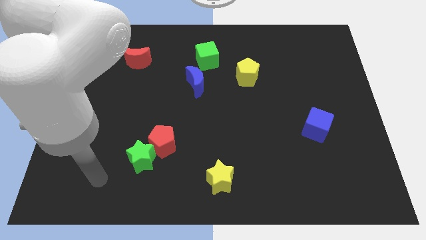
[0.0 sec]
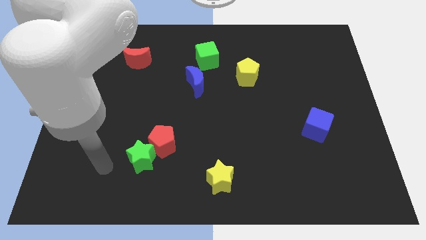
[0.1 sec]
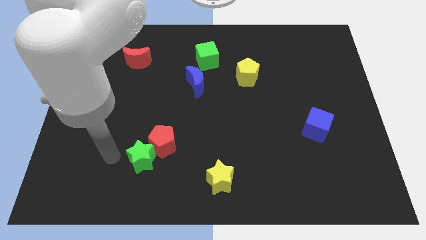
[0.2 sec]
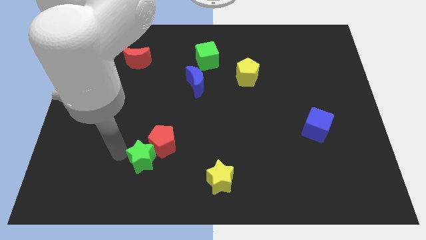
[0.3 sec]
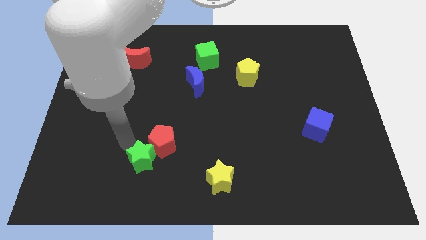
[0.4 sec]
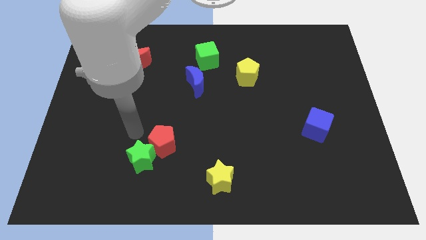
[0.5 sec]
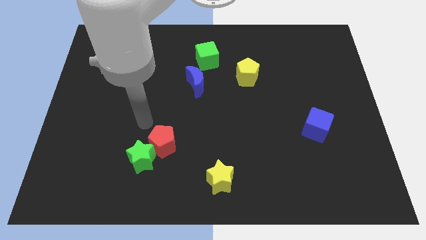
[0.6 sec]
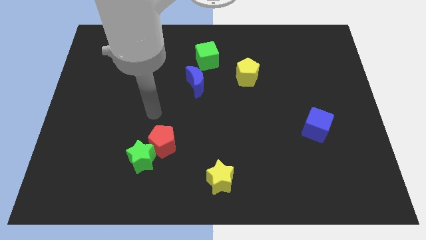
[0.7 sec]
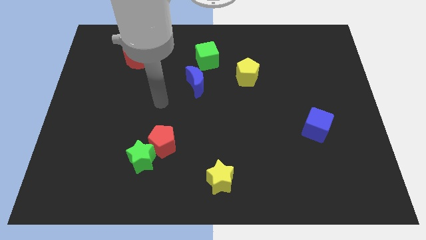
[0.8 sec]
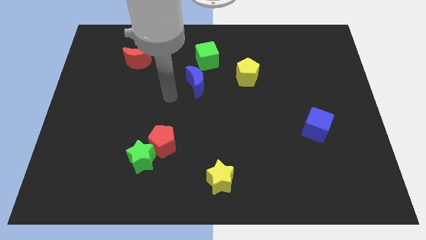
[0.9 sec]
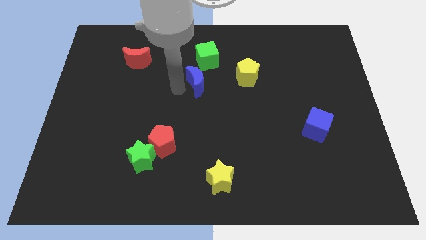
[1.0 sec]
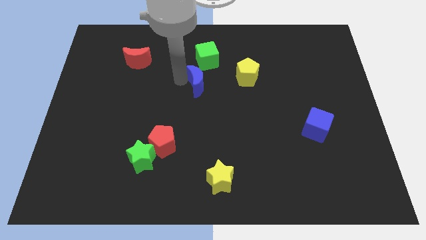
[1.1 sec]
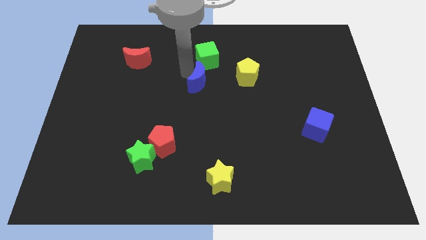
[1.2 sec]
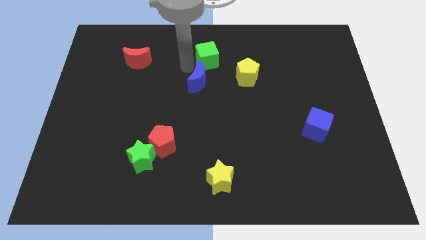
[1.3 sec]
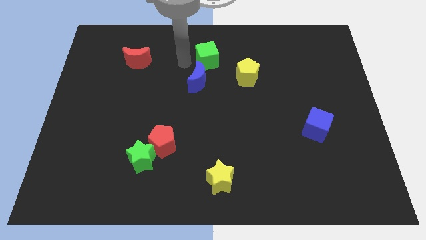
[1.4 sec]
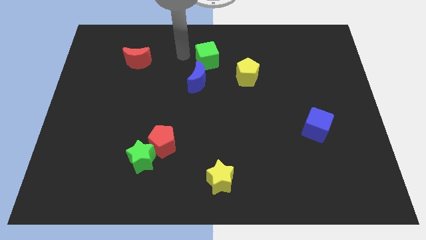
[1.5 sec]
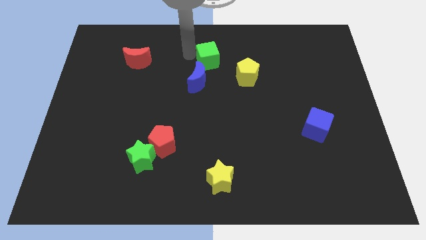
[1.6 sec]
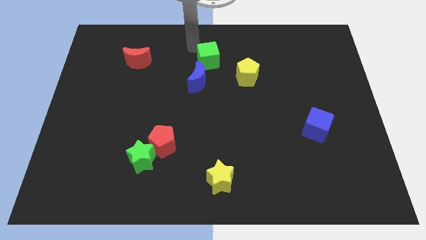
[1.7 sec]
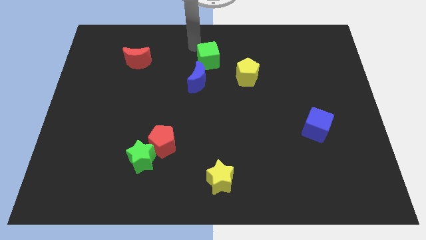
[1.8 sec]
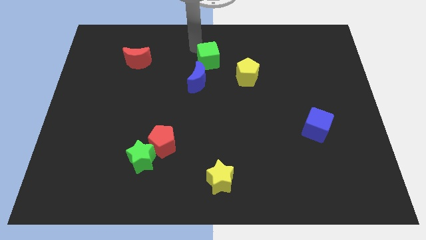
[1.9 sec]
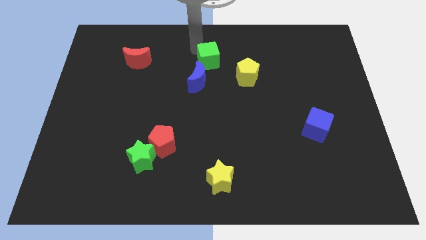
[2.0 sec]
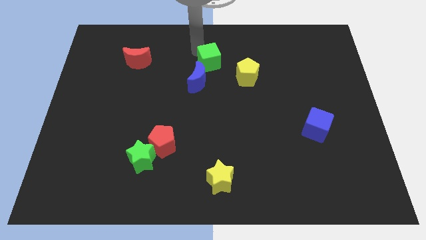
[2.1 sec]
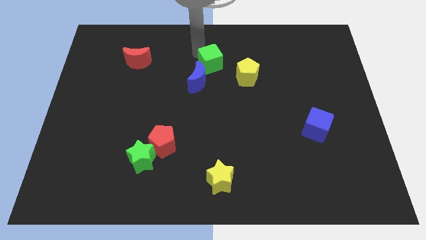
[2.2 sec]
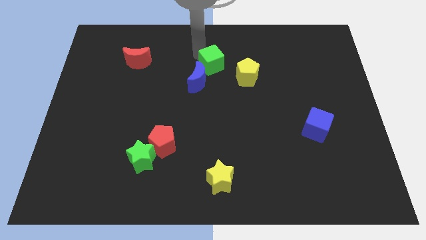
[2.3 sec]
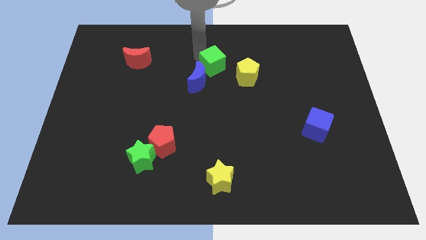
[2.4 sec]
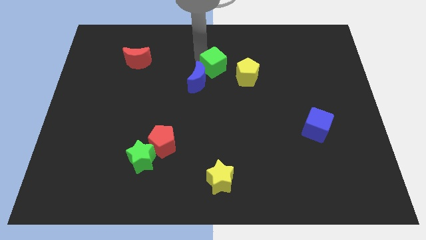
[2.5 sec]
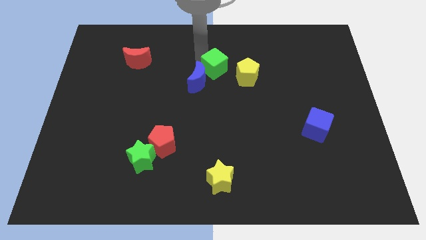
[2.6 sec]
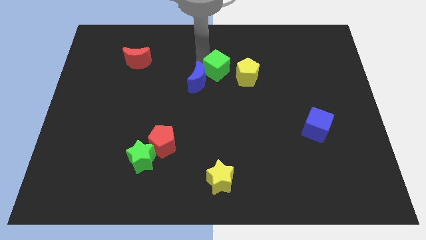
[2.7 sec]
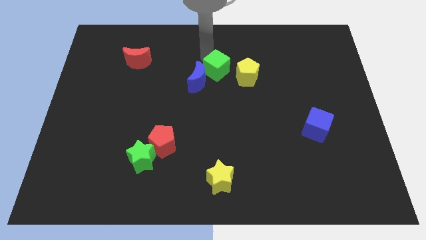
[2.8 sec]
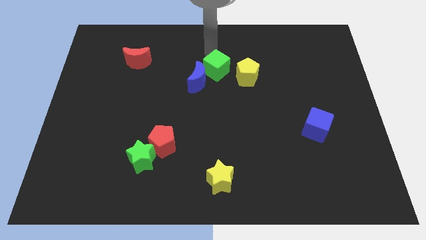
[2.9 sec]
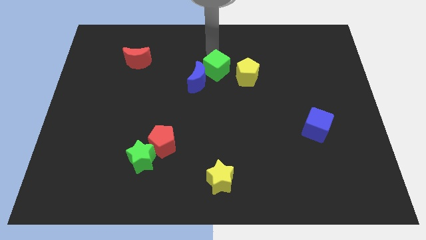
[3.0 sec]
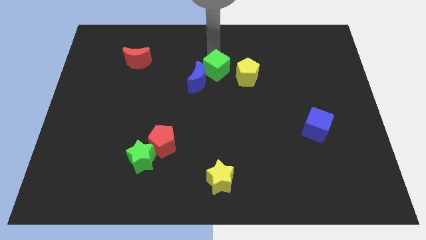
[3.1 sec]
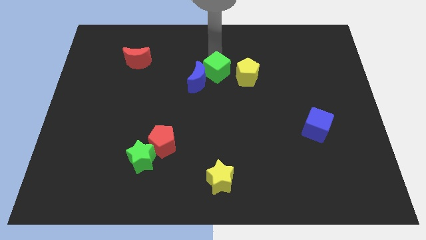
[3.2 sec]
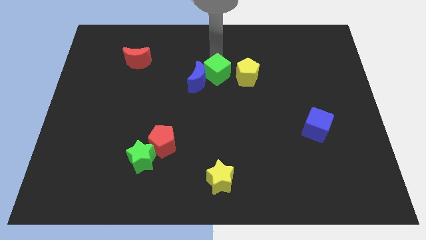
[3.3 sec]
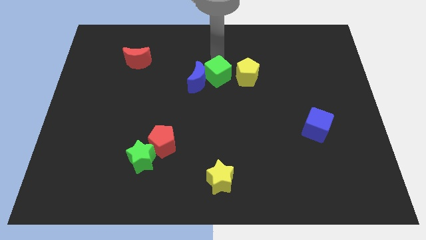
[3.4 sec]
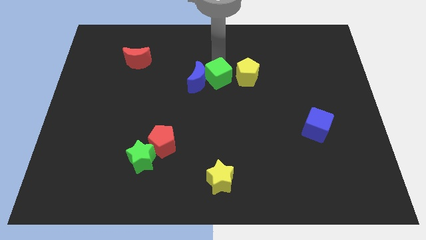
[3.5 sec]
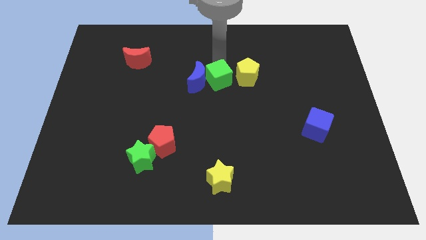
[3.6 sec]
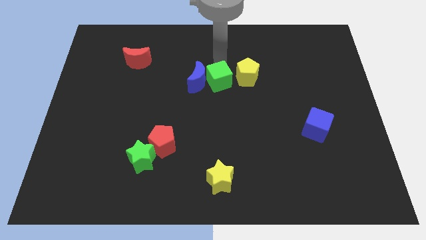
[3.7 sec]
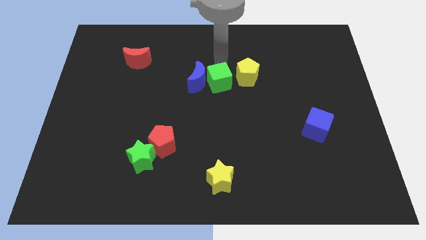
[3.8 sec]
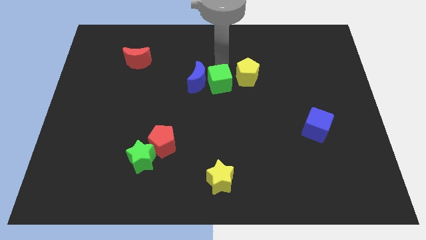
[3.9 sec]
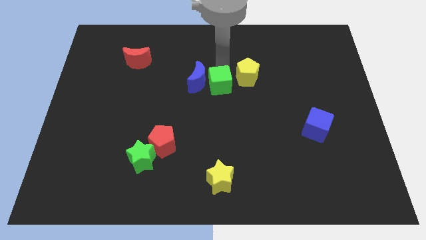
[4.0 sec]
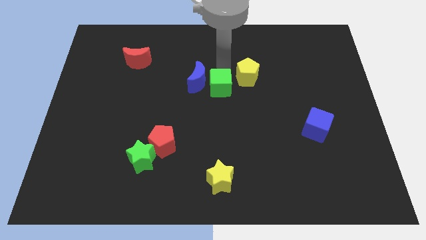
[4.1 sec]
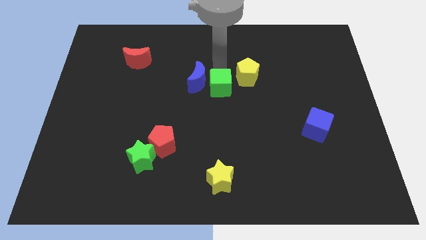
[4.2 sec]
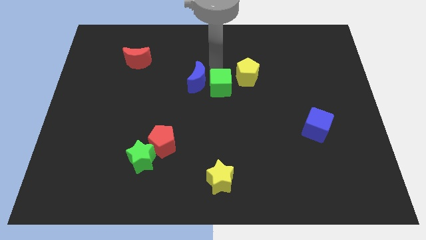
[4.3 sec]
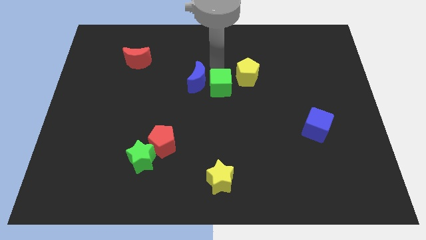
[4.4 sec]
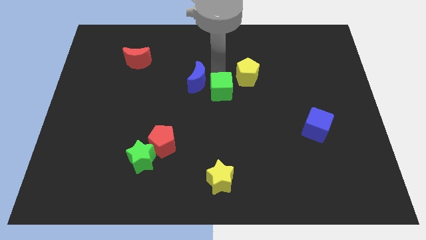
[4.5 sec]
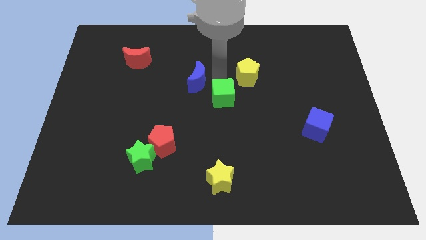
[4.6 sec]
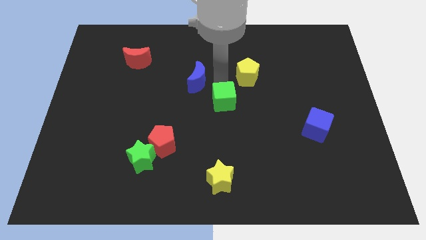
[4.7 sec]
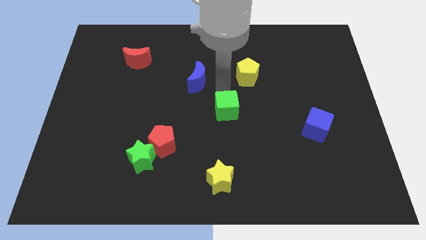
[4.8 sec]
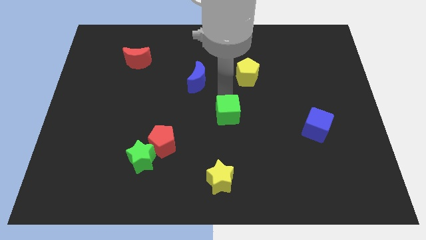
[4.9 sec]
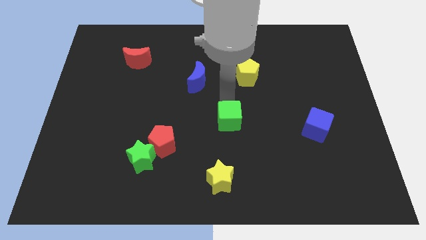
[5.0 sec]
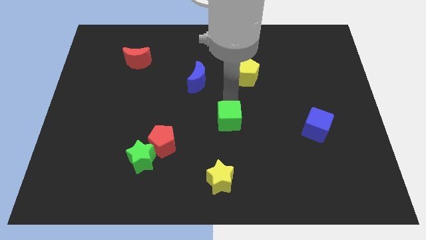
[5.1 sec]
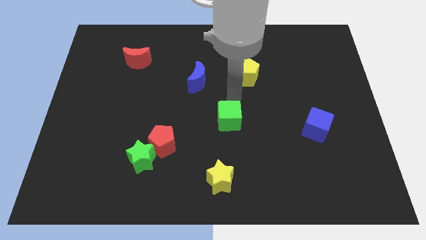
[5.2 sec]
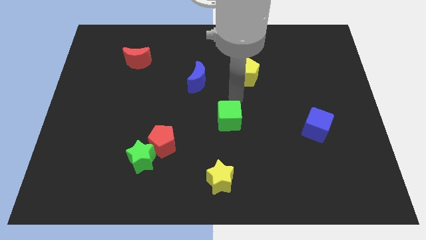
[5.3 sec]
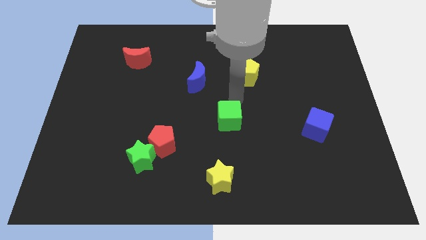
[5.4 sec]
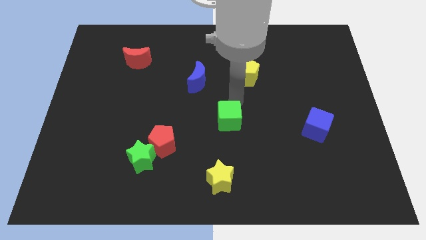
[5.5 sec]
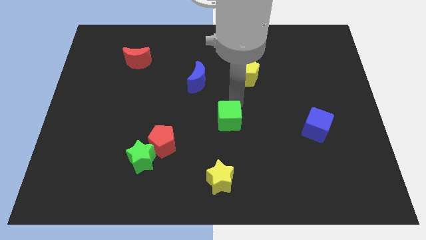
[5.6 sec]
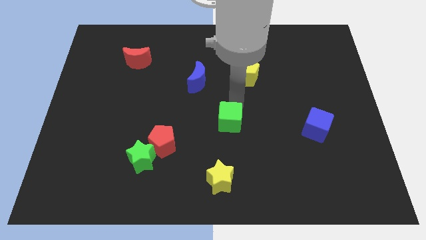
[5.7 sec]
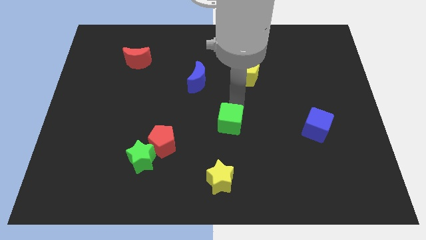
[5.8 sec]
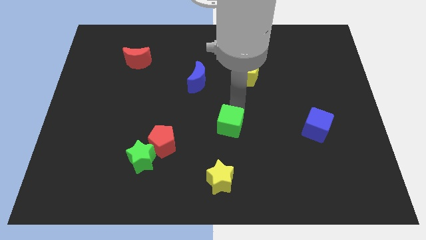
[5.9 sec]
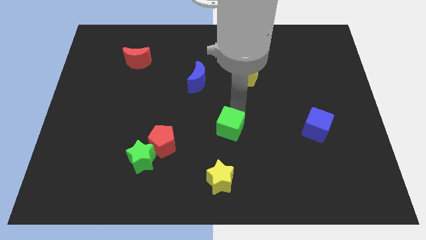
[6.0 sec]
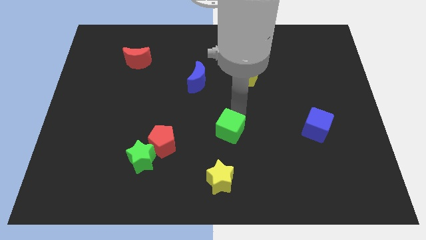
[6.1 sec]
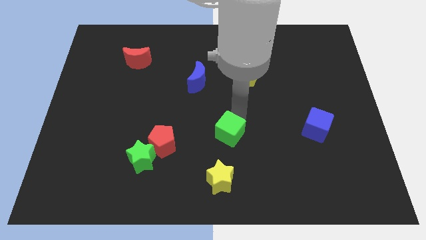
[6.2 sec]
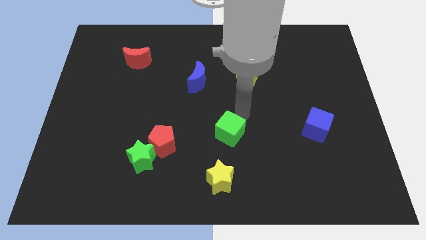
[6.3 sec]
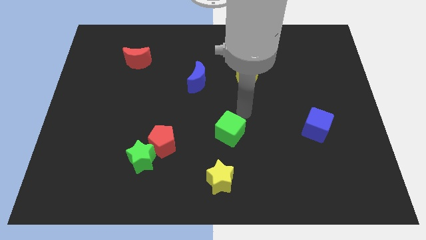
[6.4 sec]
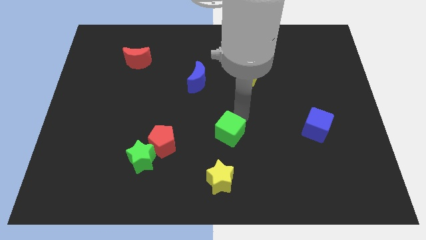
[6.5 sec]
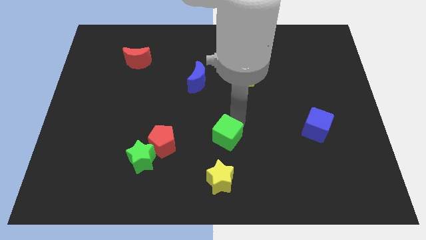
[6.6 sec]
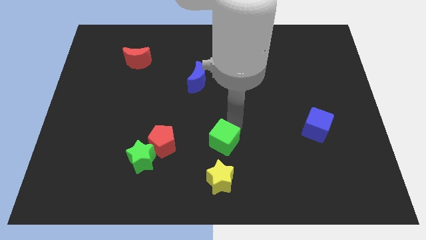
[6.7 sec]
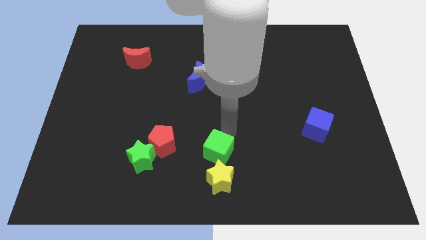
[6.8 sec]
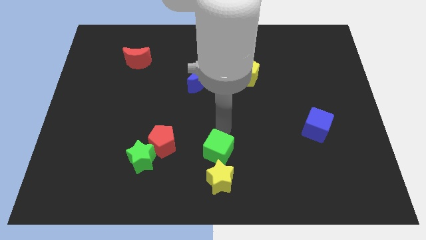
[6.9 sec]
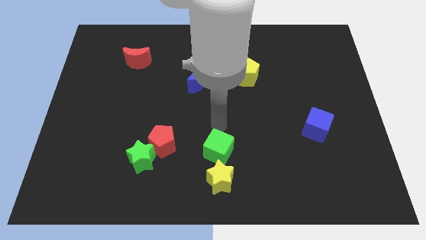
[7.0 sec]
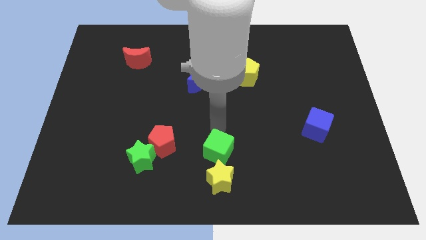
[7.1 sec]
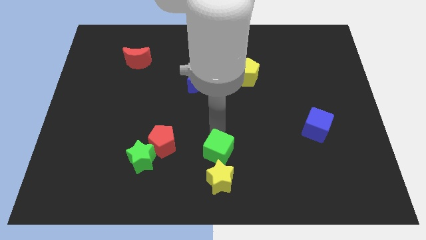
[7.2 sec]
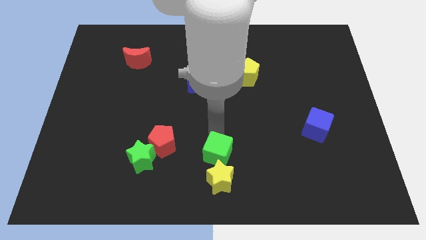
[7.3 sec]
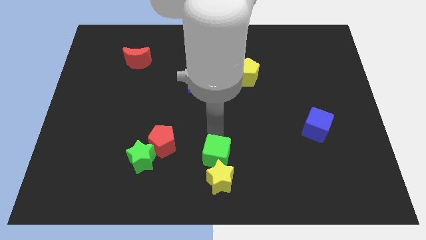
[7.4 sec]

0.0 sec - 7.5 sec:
slide the green cube to the yellow star

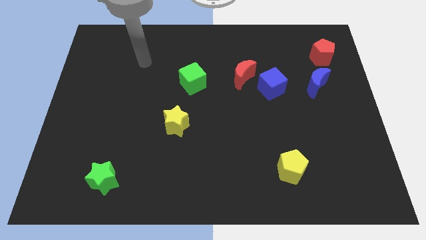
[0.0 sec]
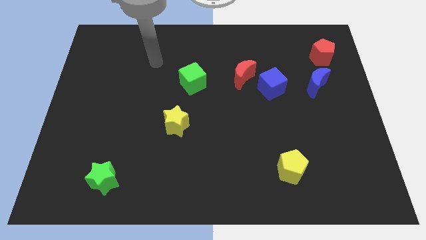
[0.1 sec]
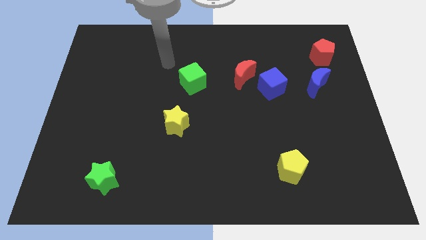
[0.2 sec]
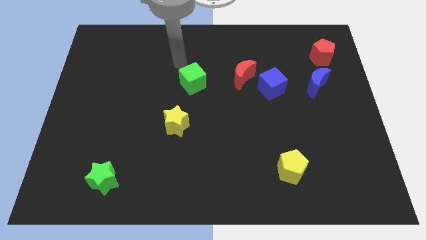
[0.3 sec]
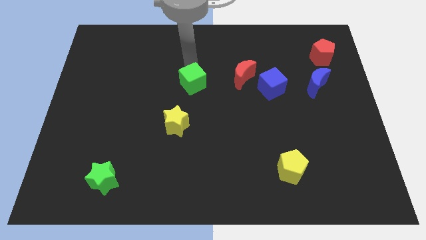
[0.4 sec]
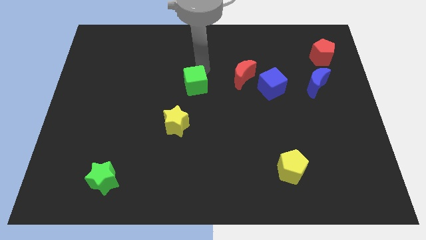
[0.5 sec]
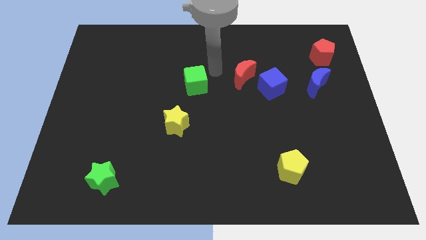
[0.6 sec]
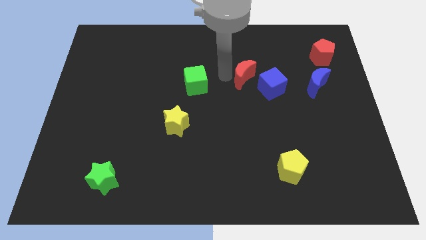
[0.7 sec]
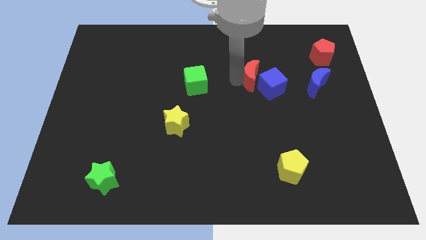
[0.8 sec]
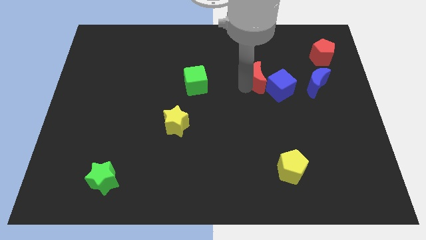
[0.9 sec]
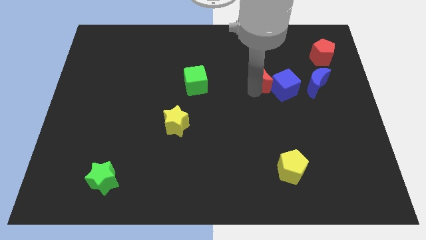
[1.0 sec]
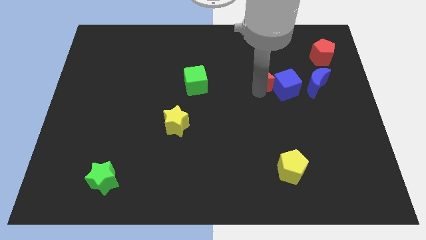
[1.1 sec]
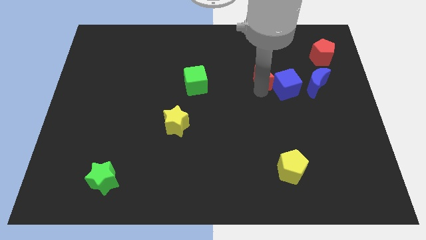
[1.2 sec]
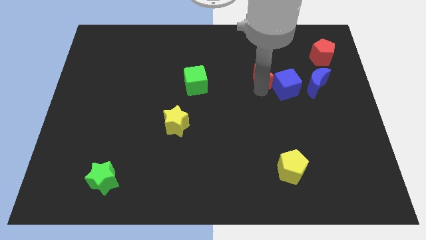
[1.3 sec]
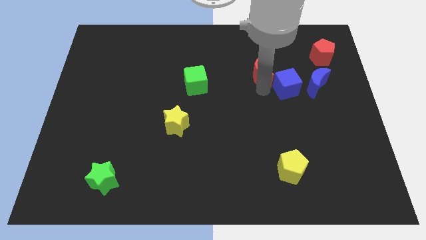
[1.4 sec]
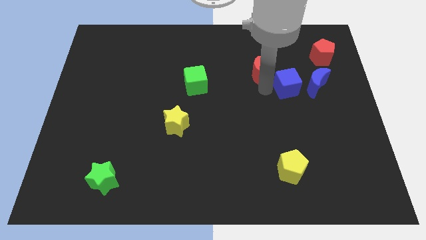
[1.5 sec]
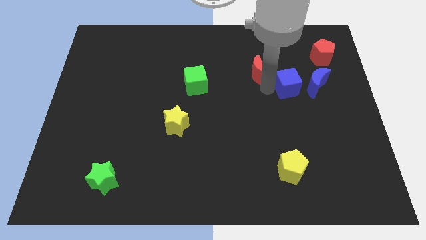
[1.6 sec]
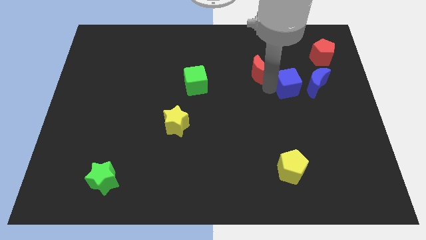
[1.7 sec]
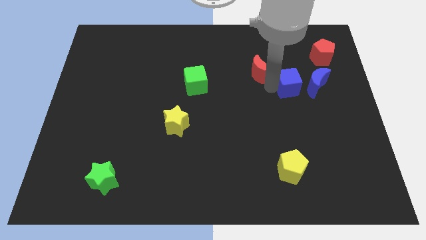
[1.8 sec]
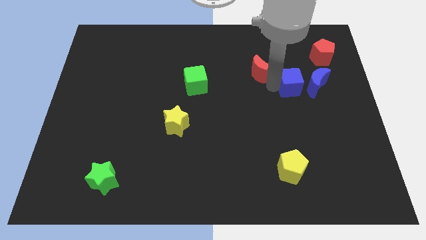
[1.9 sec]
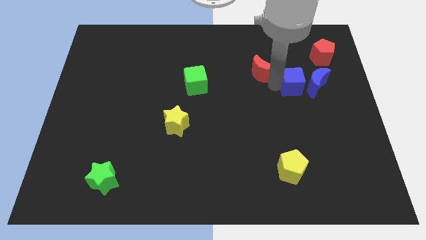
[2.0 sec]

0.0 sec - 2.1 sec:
push the blue cube close to the blue moon
